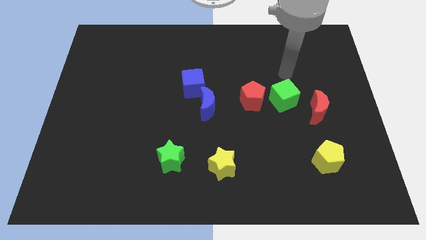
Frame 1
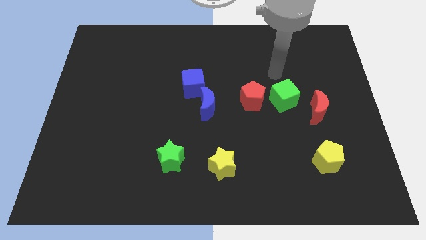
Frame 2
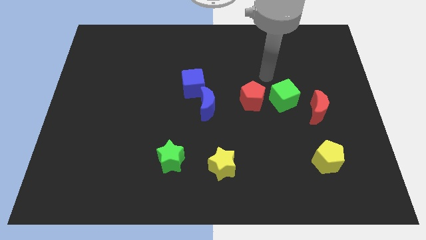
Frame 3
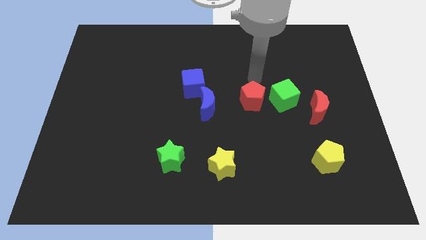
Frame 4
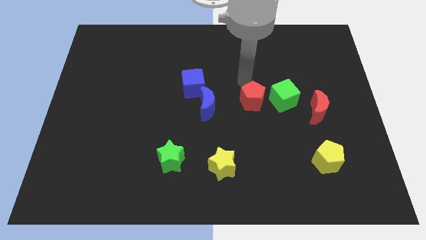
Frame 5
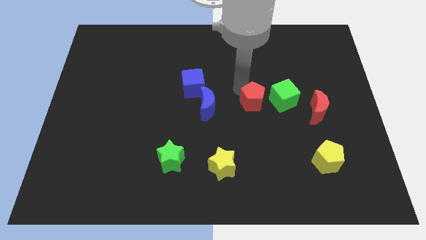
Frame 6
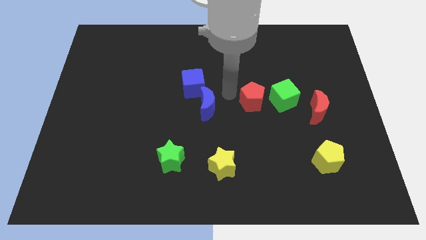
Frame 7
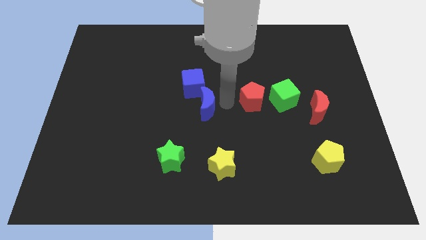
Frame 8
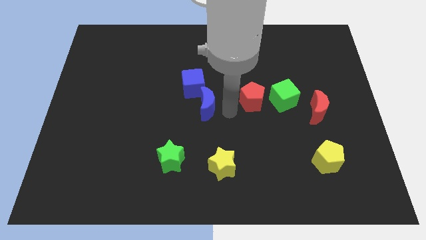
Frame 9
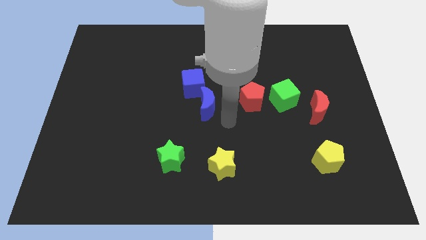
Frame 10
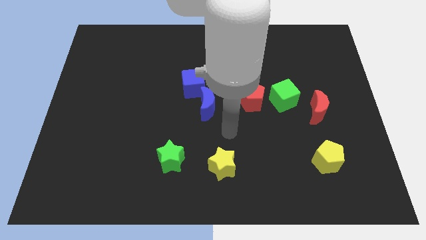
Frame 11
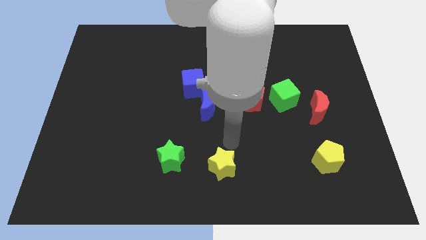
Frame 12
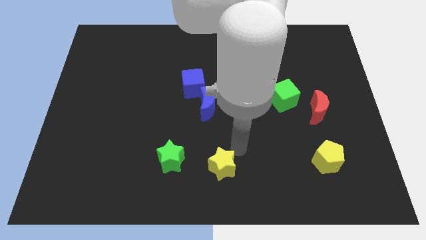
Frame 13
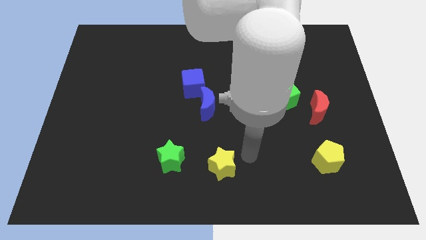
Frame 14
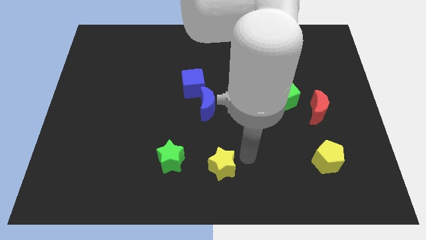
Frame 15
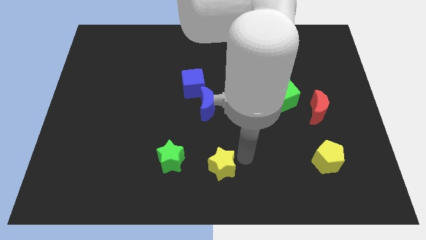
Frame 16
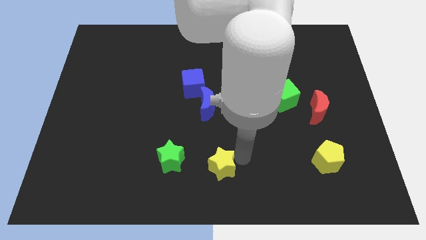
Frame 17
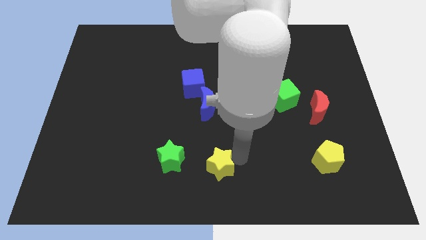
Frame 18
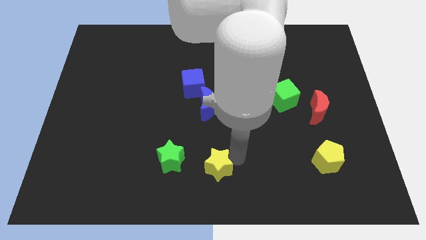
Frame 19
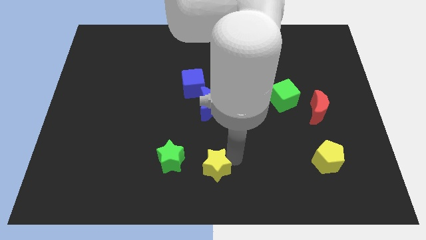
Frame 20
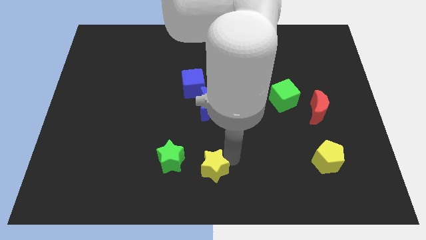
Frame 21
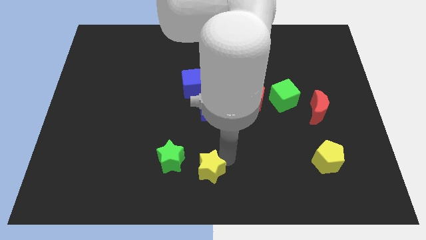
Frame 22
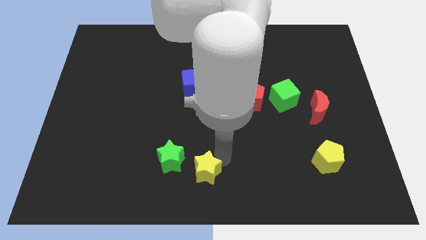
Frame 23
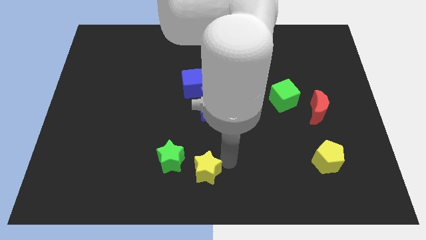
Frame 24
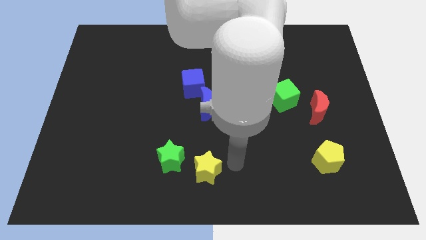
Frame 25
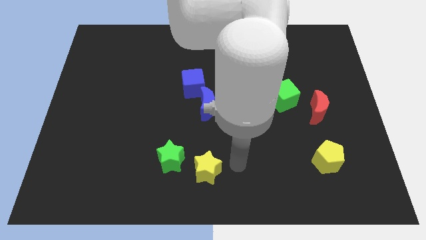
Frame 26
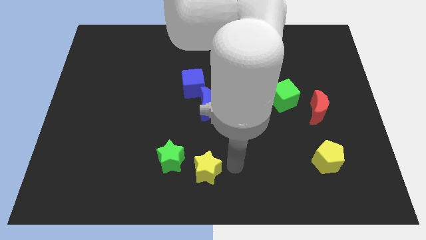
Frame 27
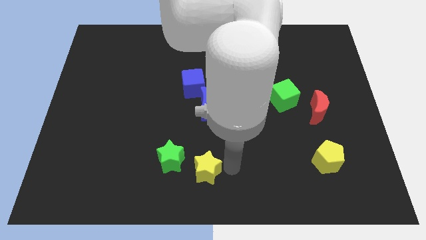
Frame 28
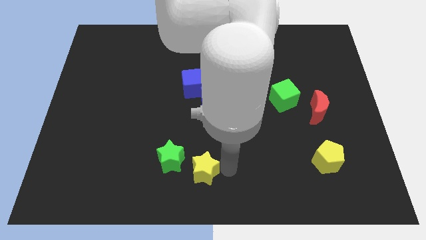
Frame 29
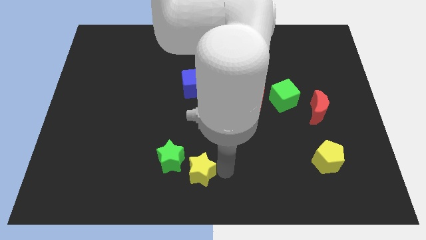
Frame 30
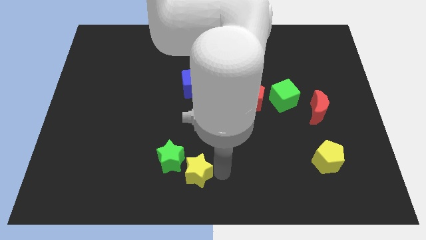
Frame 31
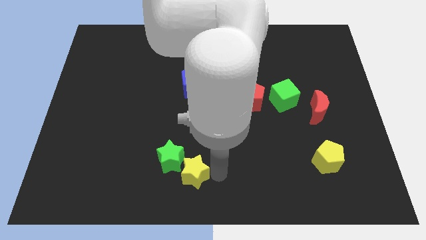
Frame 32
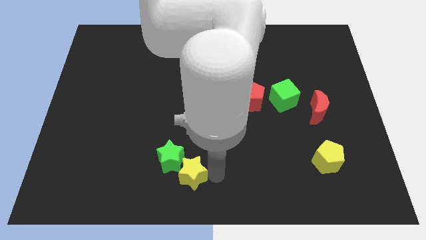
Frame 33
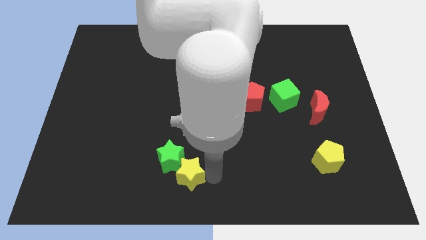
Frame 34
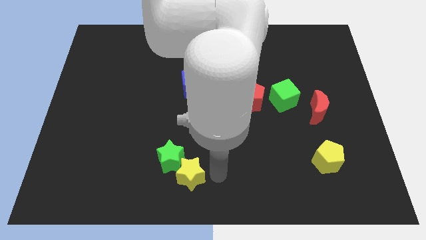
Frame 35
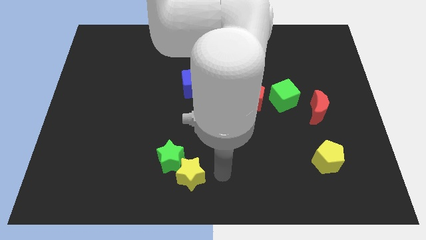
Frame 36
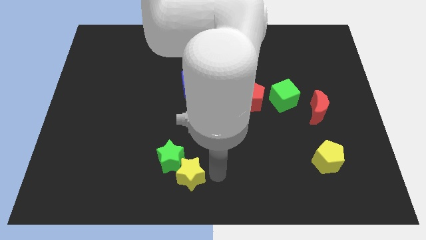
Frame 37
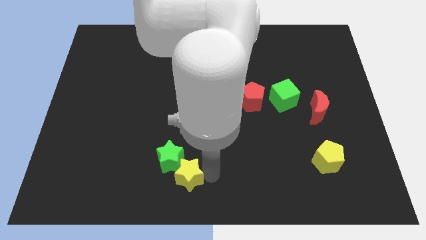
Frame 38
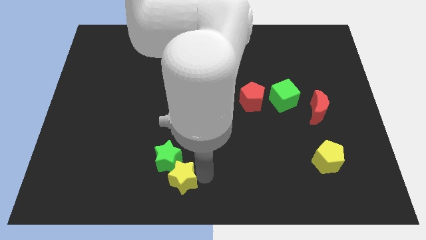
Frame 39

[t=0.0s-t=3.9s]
push the yellow star left somewhat

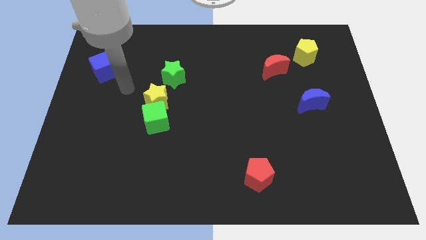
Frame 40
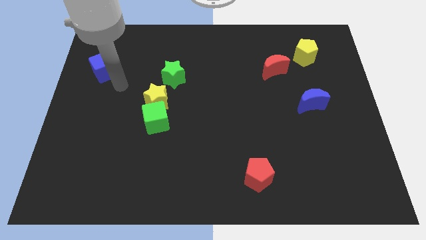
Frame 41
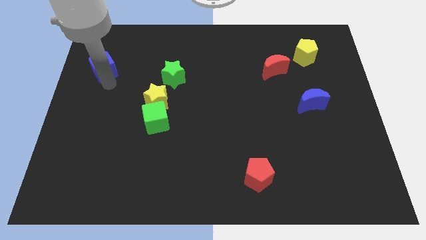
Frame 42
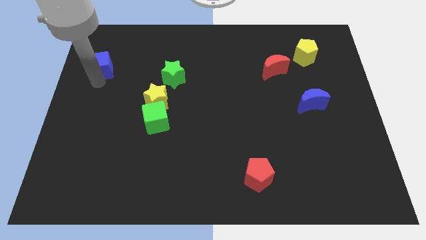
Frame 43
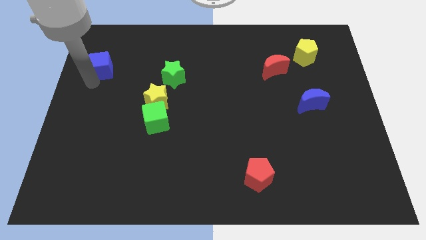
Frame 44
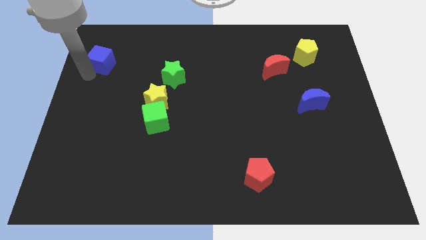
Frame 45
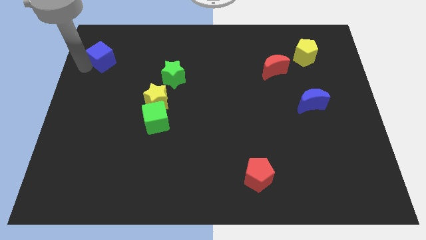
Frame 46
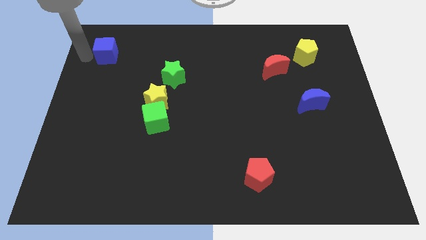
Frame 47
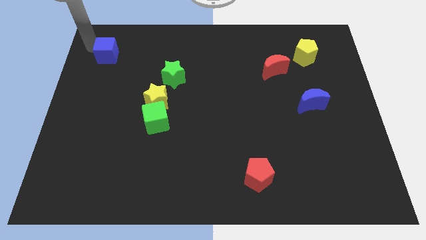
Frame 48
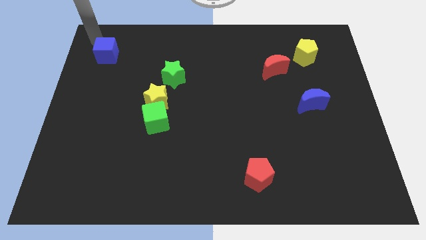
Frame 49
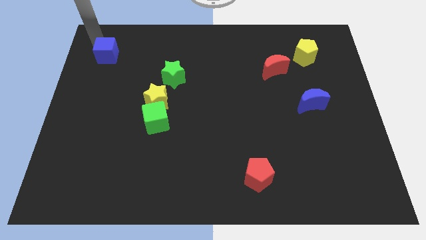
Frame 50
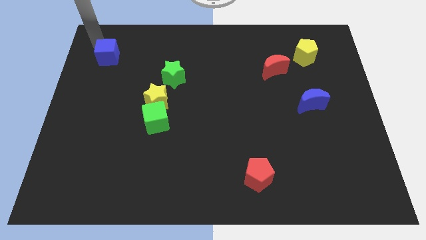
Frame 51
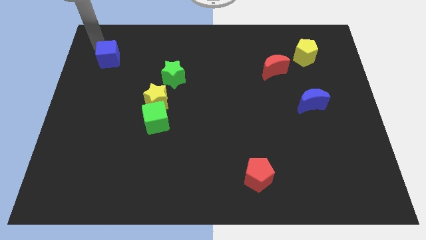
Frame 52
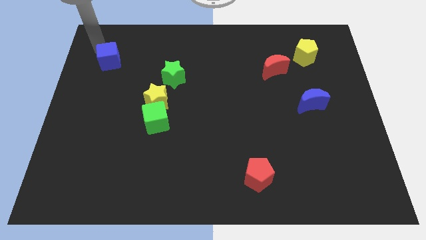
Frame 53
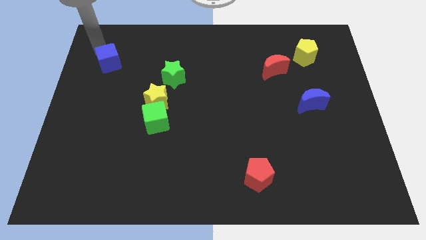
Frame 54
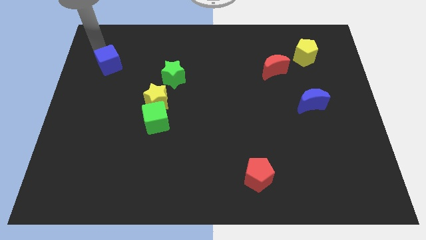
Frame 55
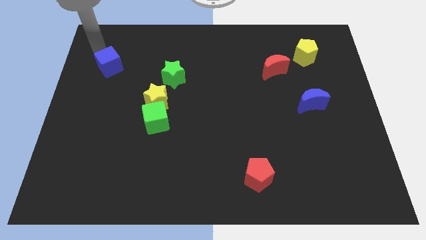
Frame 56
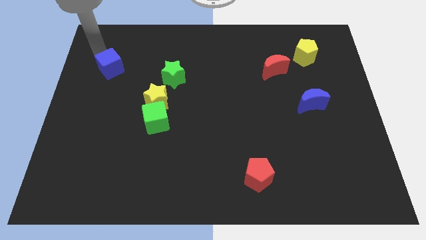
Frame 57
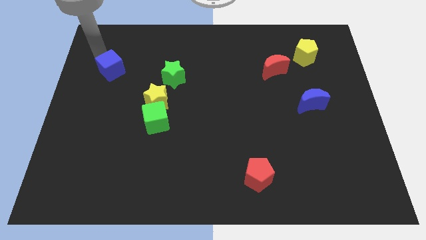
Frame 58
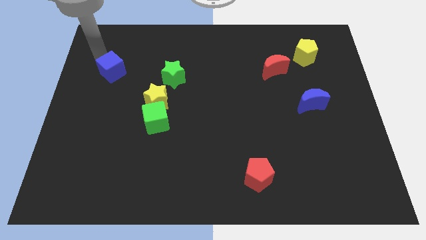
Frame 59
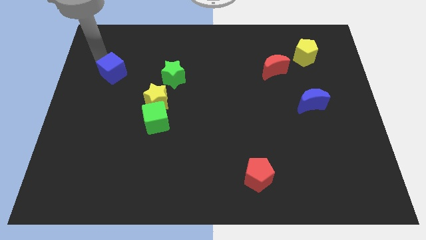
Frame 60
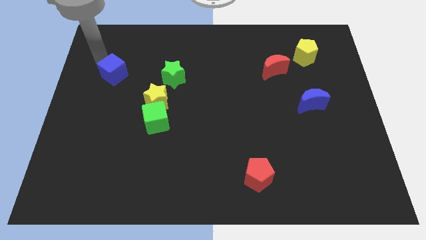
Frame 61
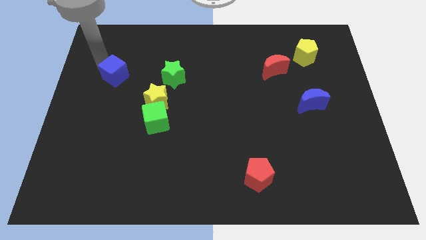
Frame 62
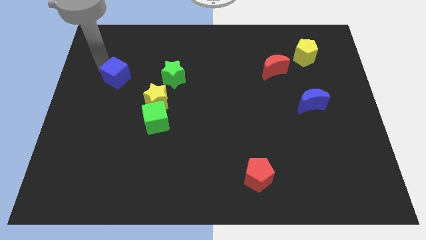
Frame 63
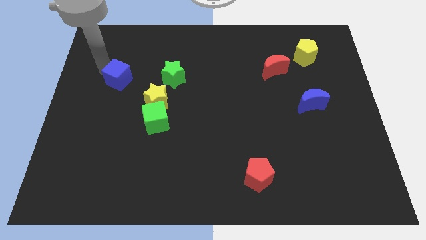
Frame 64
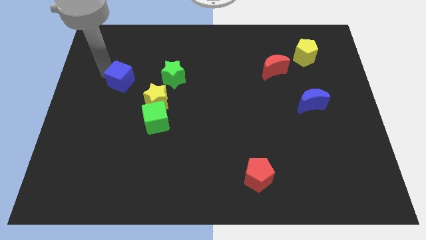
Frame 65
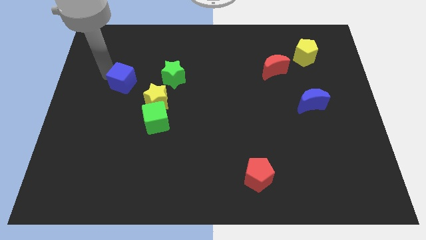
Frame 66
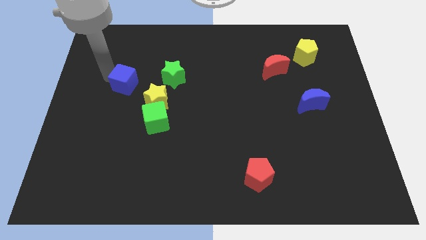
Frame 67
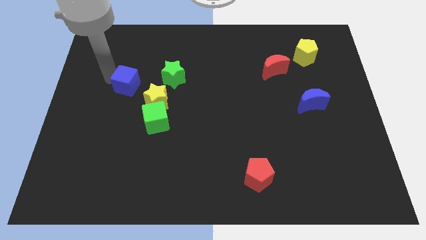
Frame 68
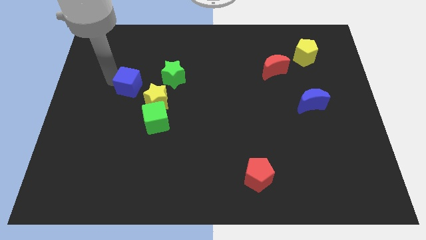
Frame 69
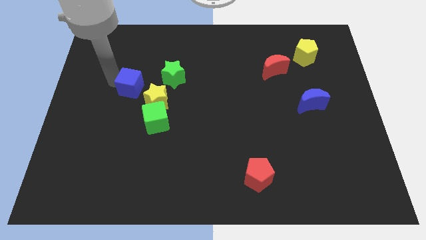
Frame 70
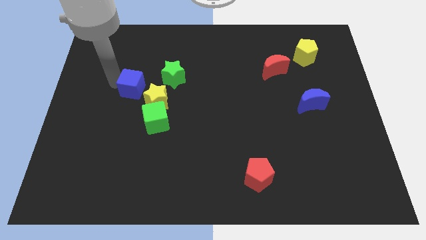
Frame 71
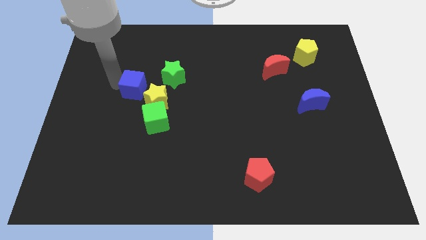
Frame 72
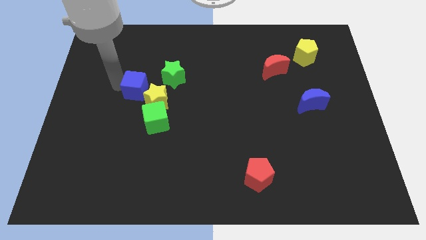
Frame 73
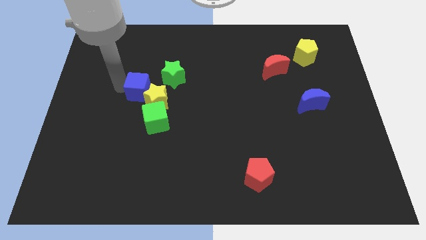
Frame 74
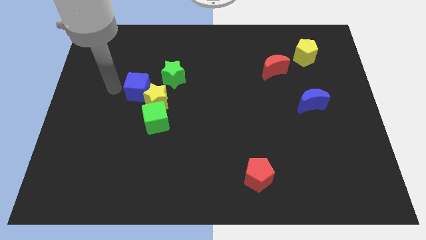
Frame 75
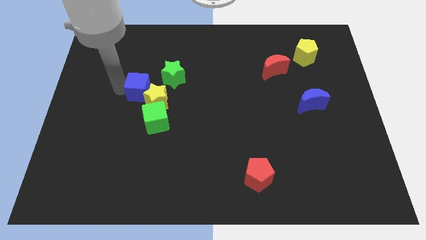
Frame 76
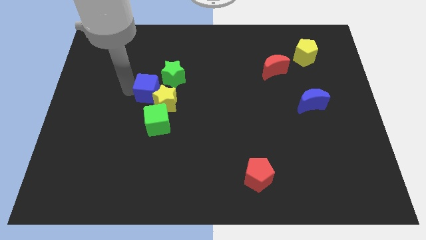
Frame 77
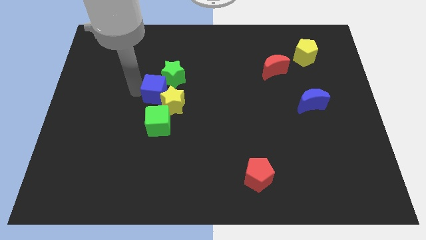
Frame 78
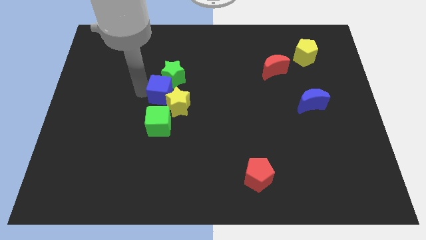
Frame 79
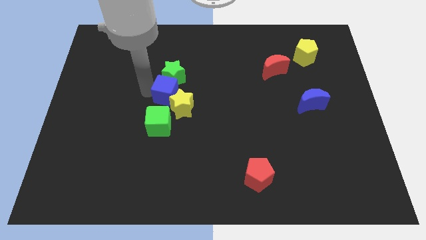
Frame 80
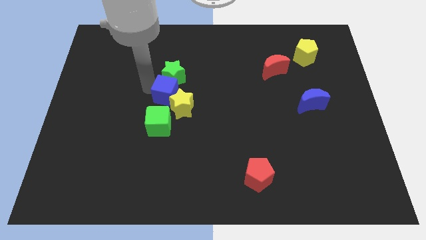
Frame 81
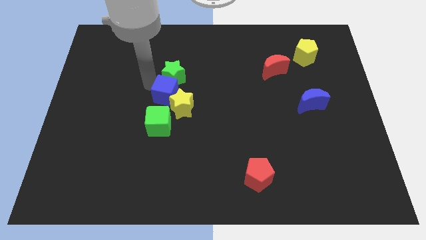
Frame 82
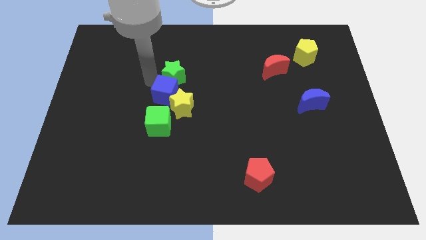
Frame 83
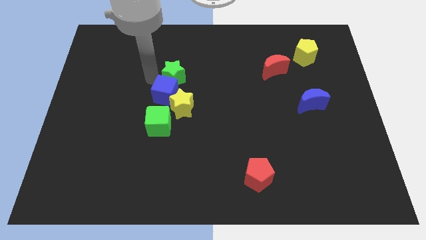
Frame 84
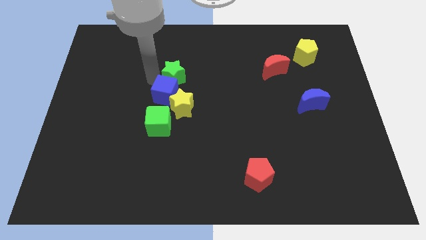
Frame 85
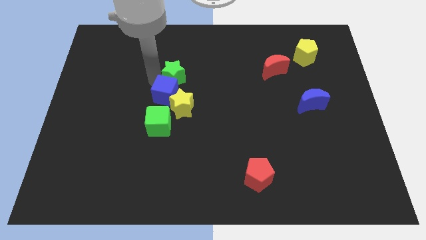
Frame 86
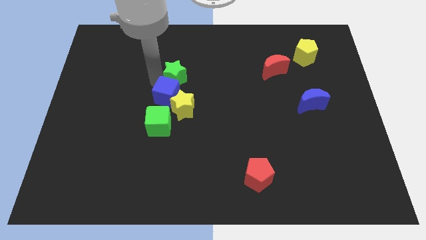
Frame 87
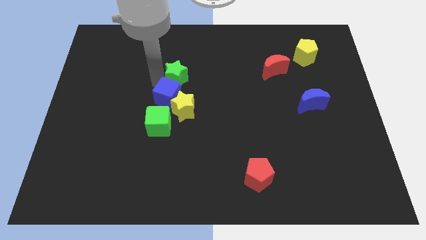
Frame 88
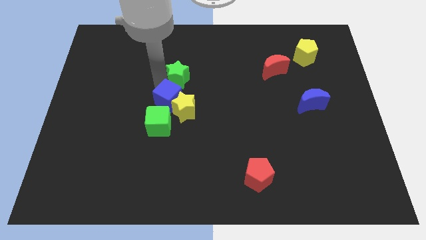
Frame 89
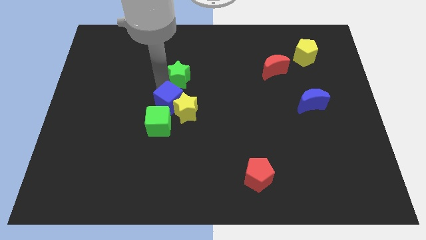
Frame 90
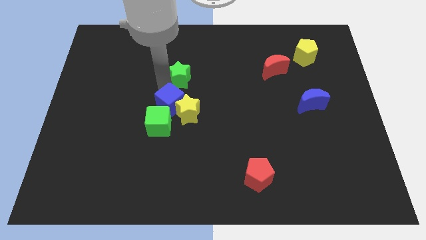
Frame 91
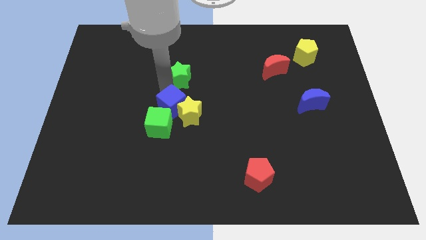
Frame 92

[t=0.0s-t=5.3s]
push the blue cube downwards and right diagonally
